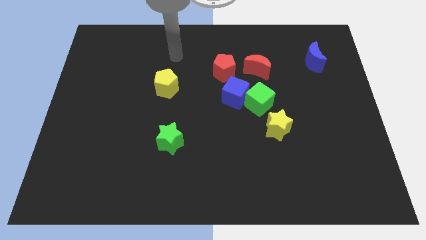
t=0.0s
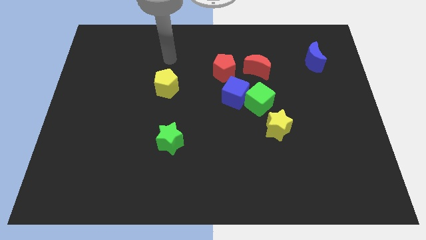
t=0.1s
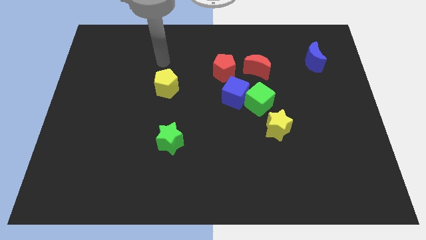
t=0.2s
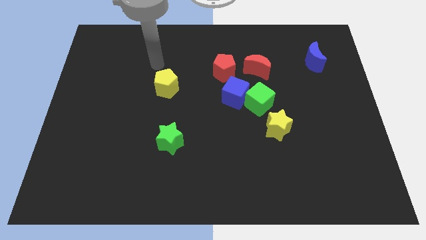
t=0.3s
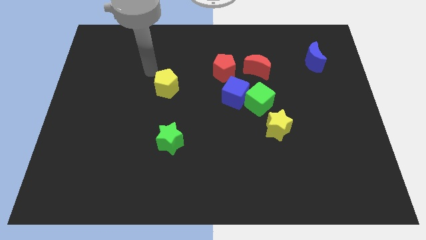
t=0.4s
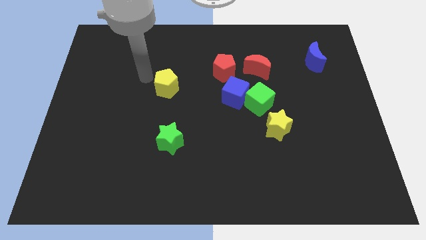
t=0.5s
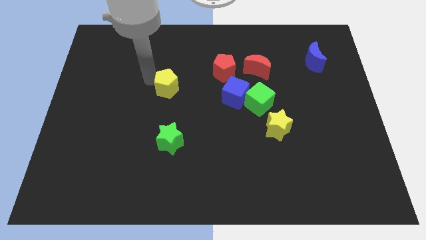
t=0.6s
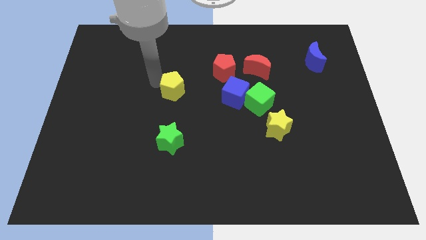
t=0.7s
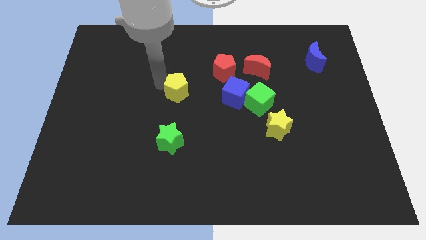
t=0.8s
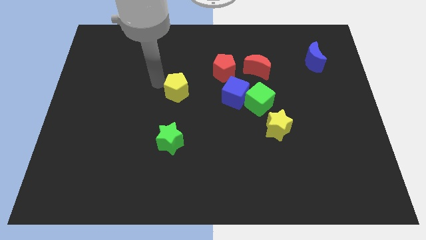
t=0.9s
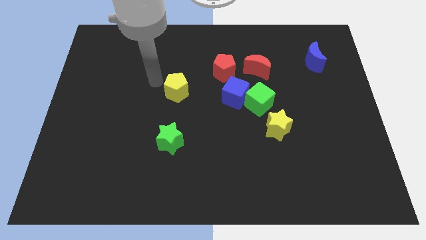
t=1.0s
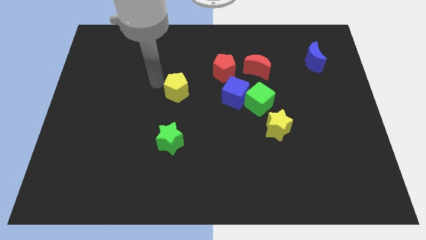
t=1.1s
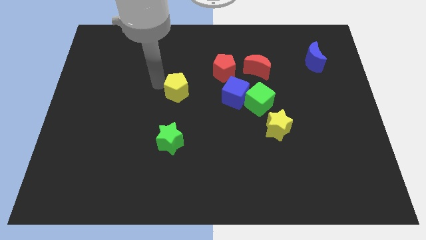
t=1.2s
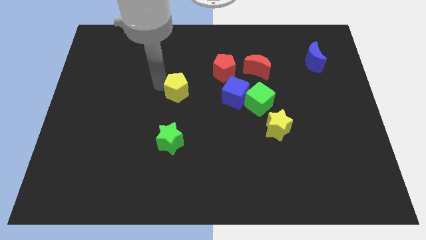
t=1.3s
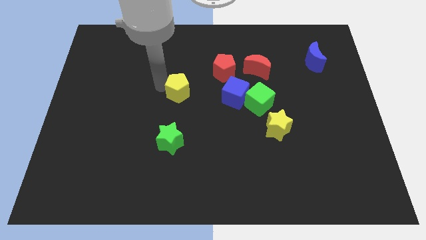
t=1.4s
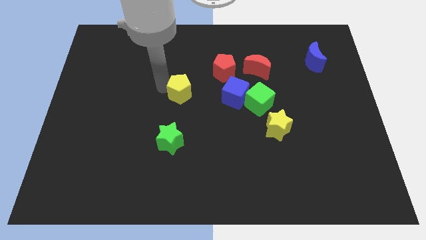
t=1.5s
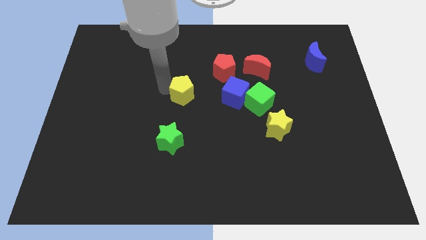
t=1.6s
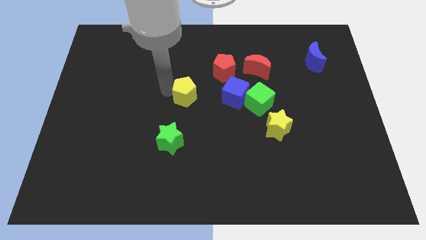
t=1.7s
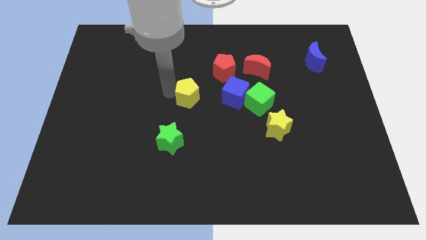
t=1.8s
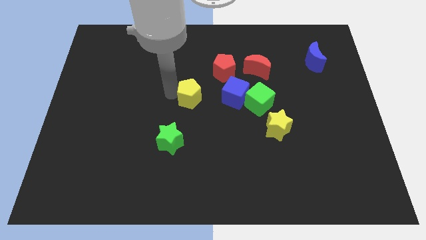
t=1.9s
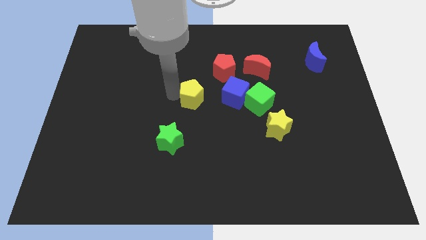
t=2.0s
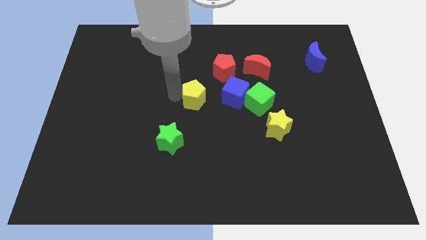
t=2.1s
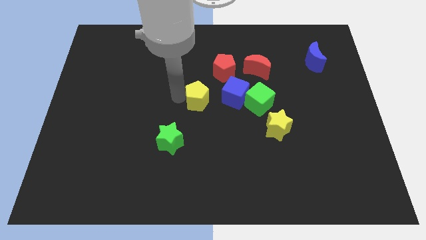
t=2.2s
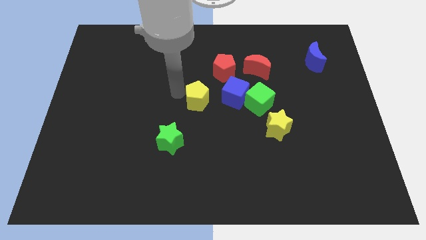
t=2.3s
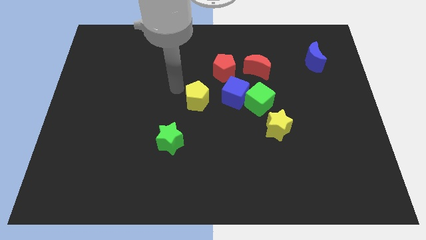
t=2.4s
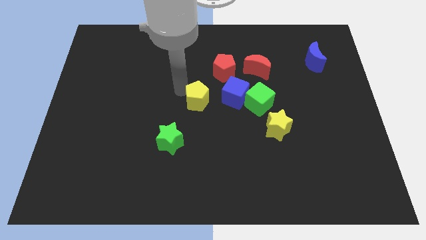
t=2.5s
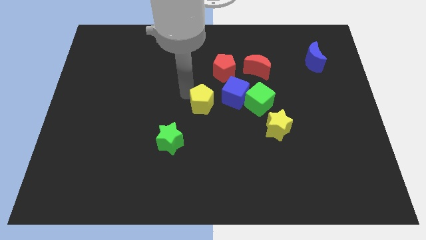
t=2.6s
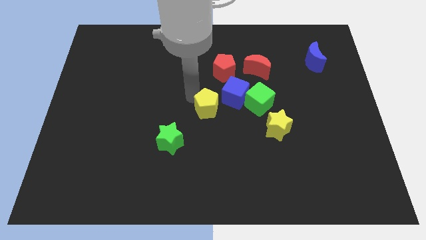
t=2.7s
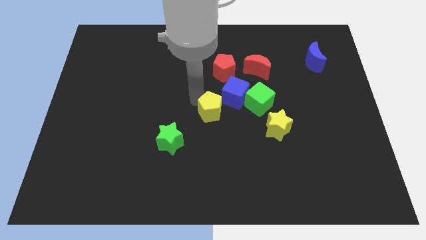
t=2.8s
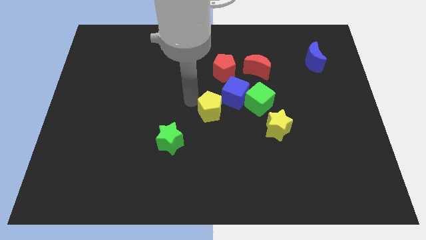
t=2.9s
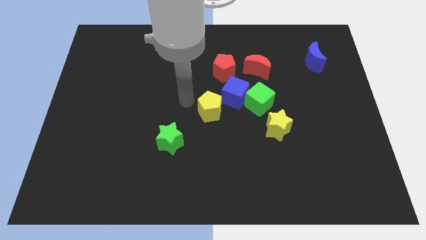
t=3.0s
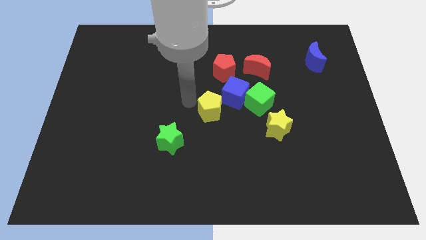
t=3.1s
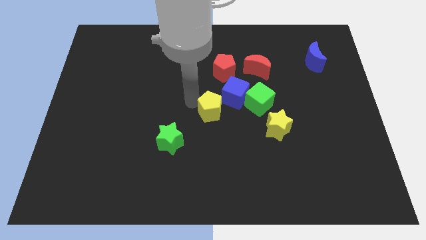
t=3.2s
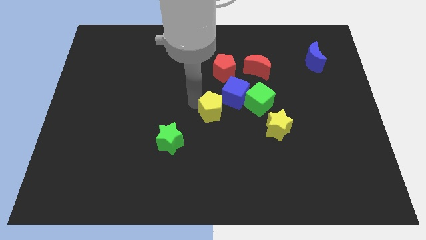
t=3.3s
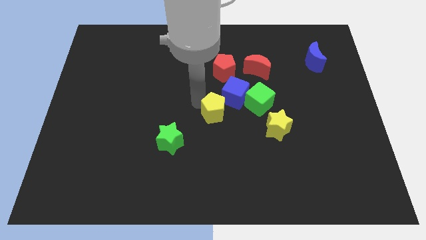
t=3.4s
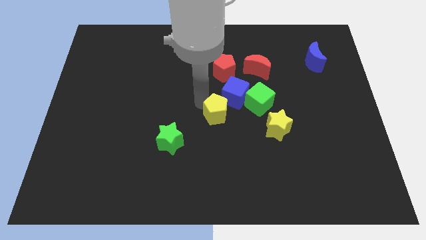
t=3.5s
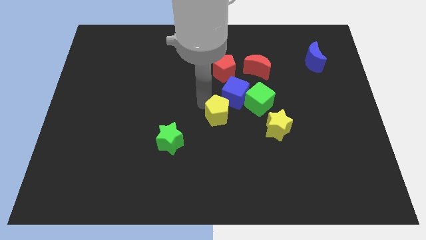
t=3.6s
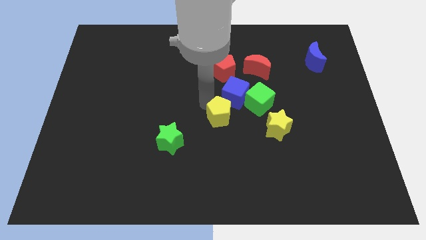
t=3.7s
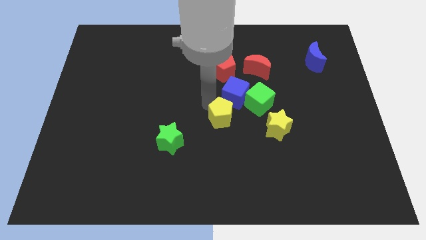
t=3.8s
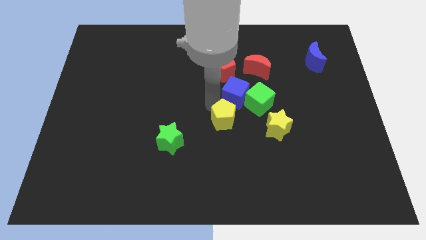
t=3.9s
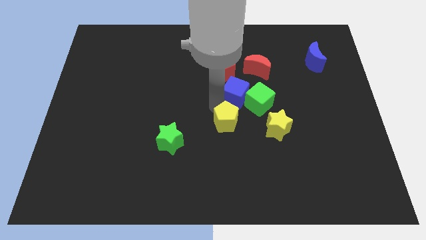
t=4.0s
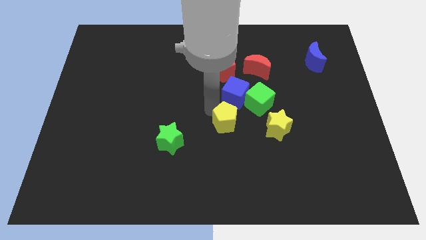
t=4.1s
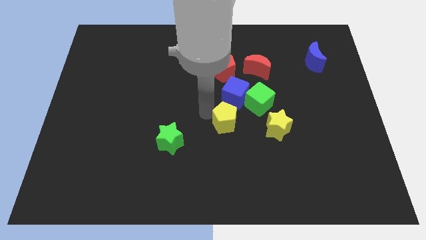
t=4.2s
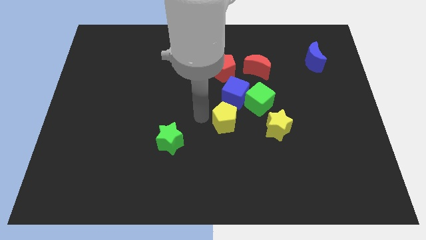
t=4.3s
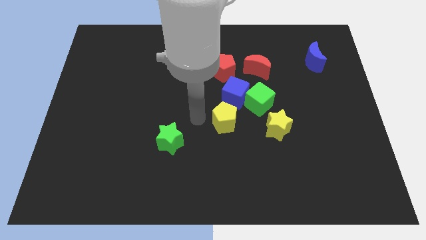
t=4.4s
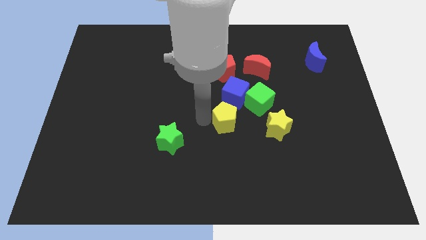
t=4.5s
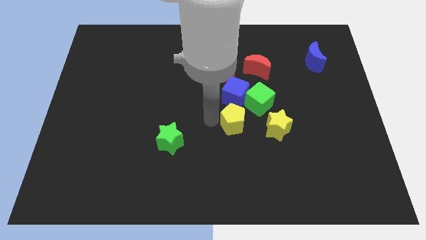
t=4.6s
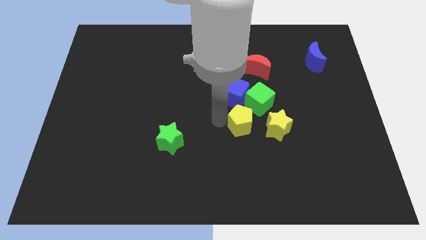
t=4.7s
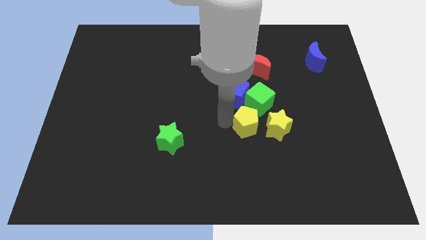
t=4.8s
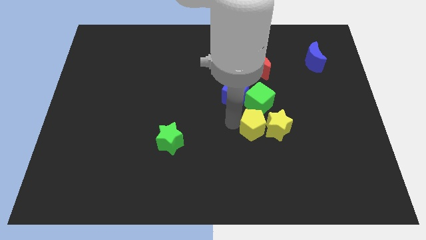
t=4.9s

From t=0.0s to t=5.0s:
slide the yellow pentagon to the yellow star

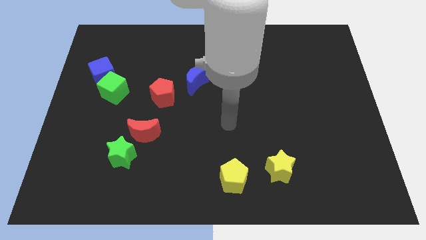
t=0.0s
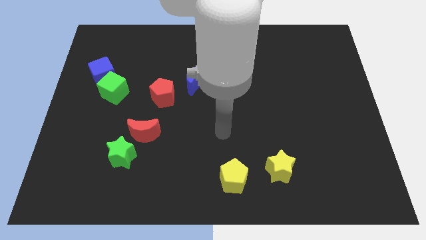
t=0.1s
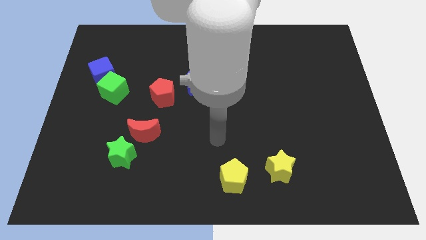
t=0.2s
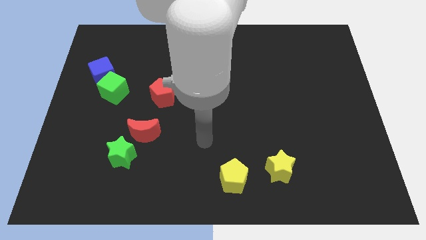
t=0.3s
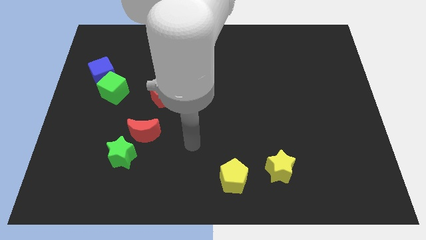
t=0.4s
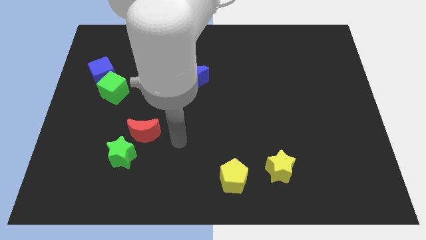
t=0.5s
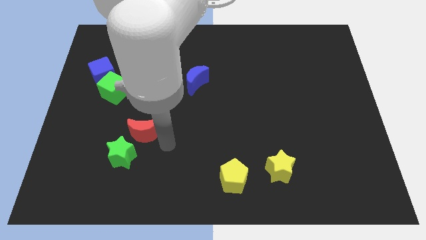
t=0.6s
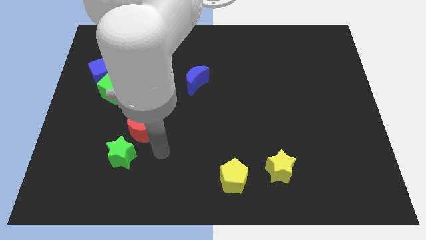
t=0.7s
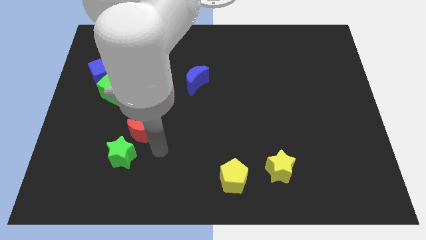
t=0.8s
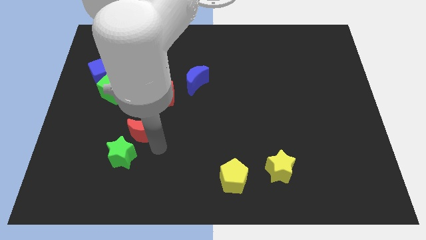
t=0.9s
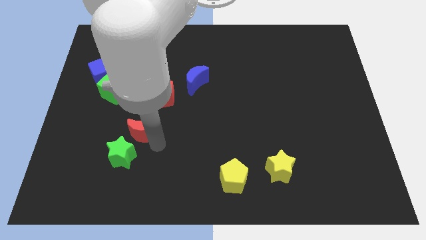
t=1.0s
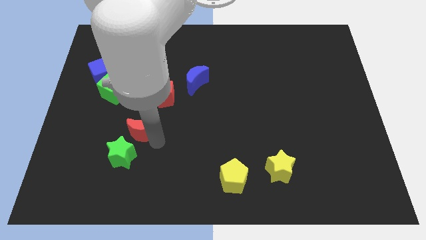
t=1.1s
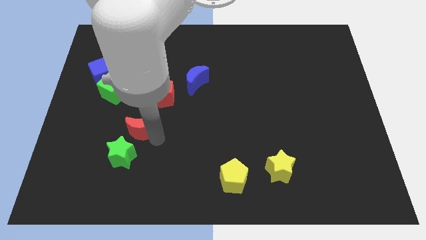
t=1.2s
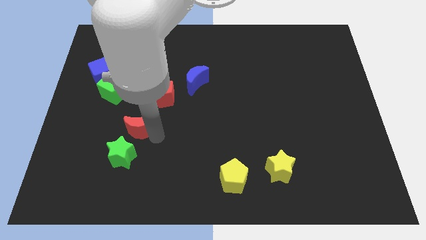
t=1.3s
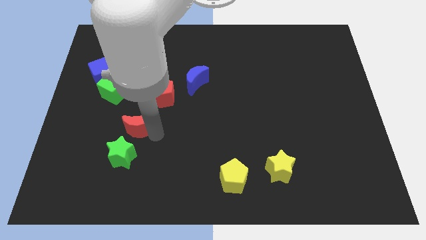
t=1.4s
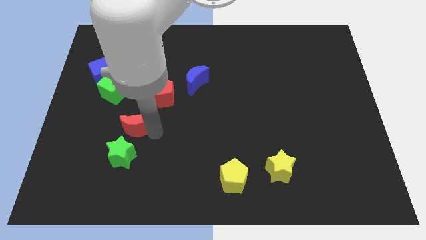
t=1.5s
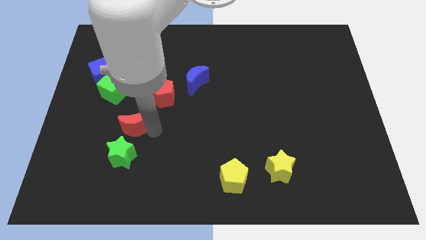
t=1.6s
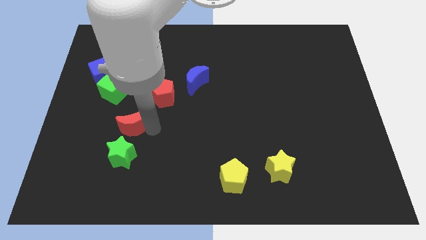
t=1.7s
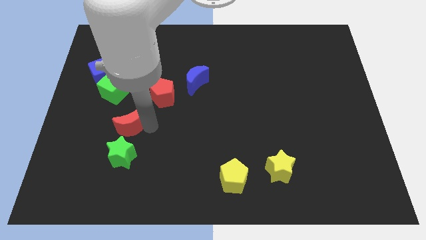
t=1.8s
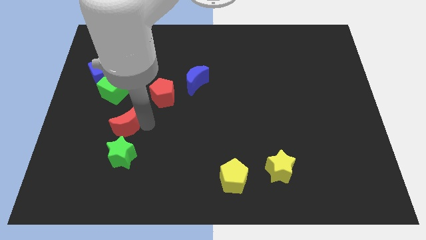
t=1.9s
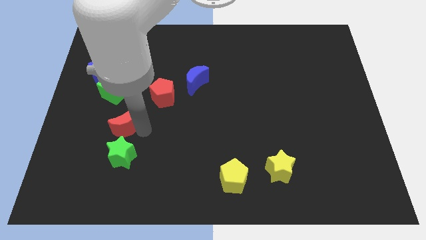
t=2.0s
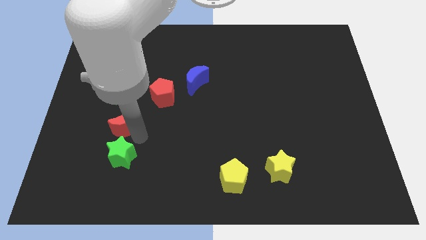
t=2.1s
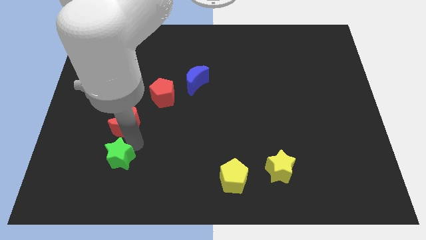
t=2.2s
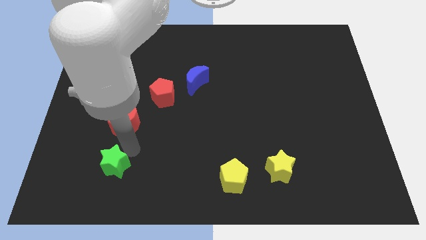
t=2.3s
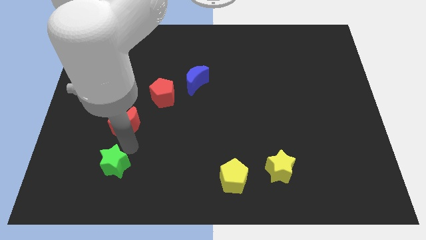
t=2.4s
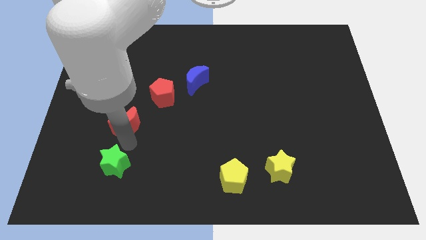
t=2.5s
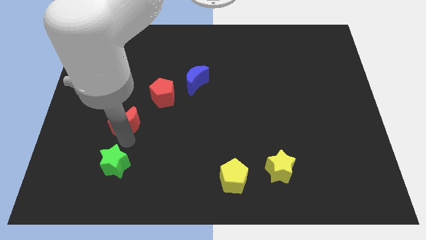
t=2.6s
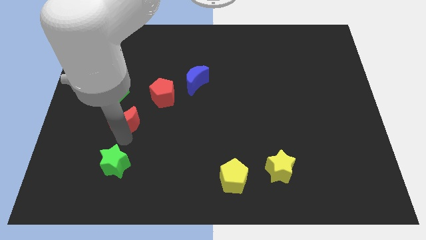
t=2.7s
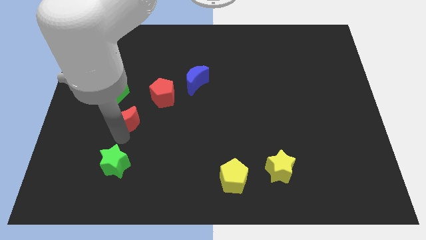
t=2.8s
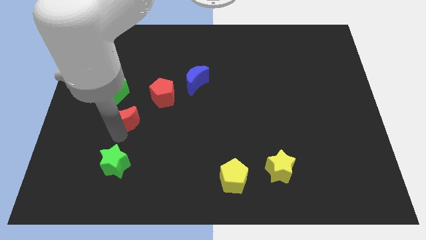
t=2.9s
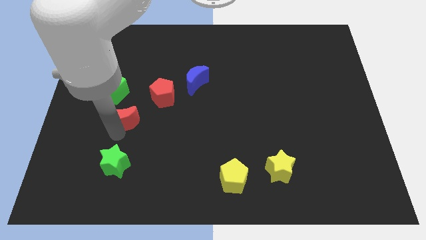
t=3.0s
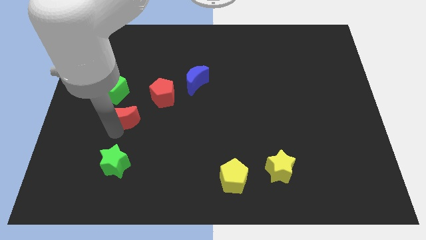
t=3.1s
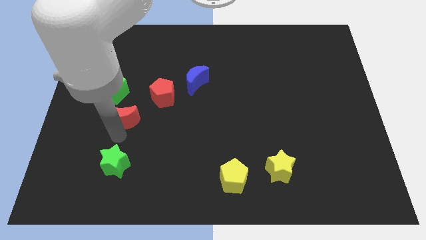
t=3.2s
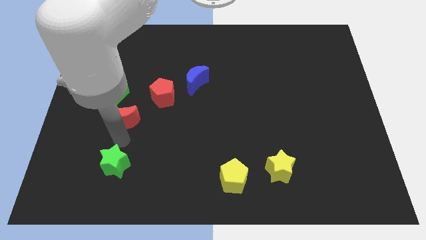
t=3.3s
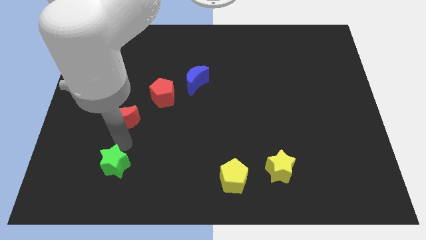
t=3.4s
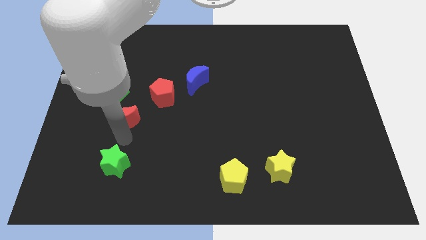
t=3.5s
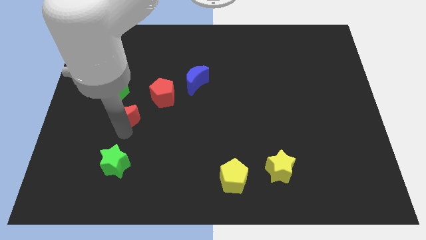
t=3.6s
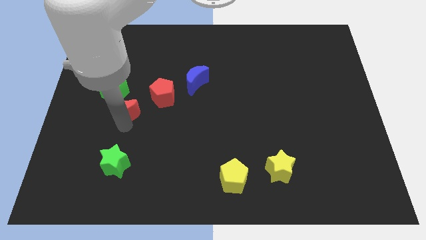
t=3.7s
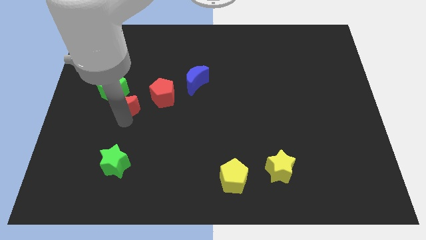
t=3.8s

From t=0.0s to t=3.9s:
put the red moon towards the green cube
